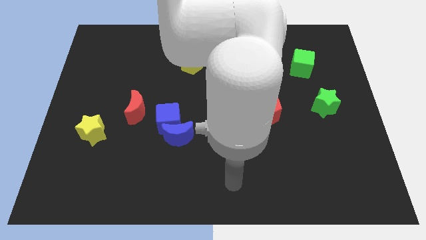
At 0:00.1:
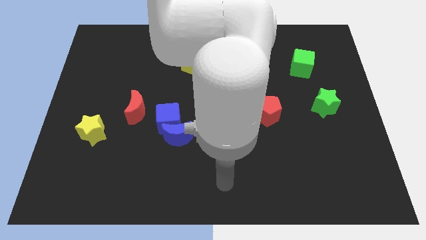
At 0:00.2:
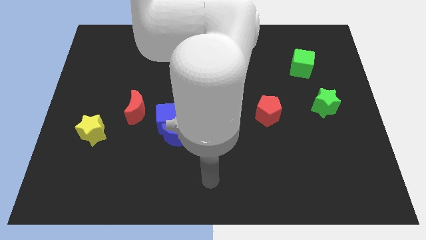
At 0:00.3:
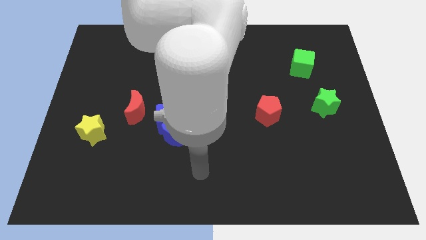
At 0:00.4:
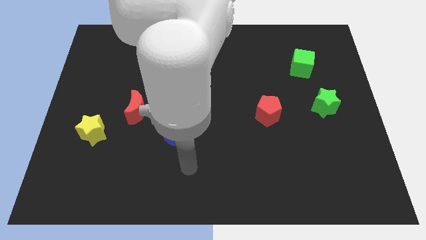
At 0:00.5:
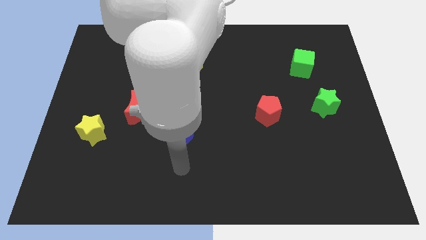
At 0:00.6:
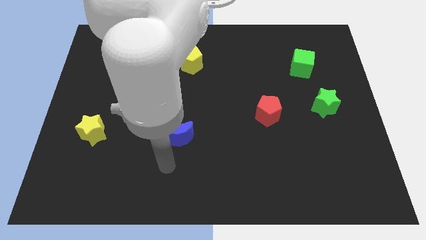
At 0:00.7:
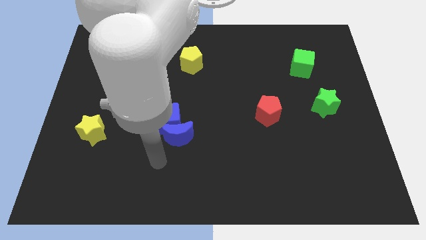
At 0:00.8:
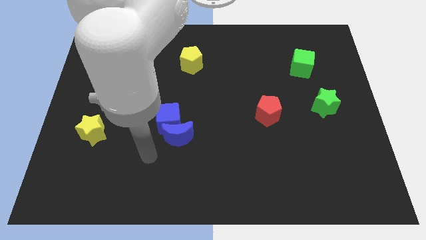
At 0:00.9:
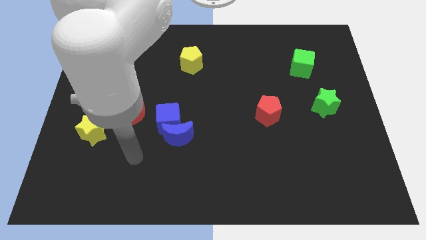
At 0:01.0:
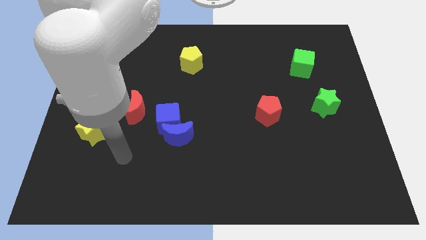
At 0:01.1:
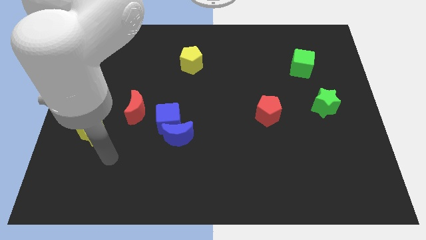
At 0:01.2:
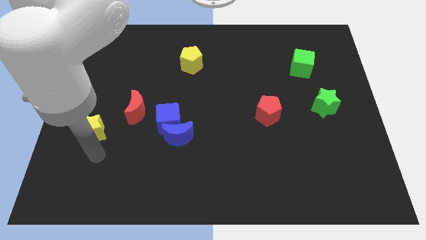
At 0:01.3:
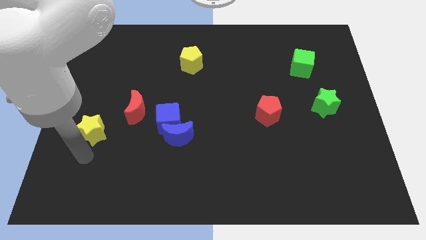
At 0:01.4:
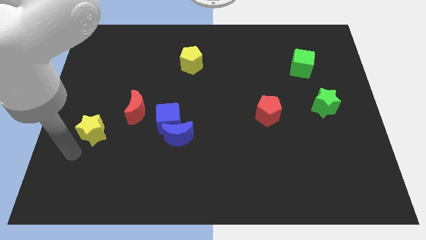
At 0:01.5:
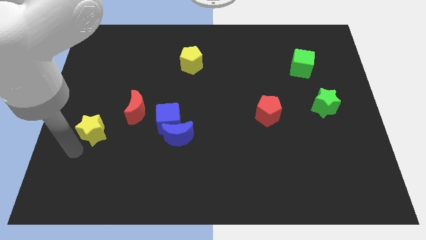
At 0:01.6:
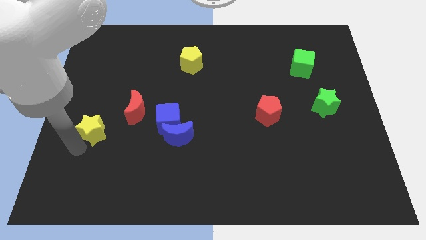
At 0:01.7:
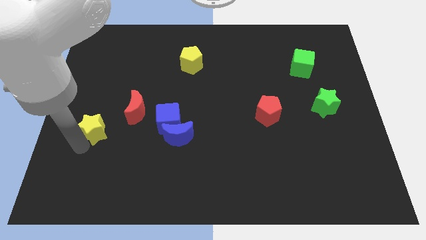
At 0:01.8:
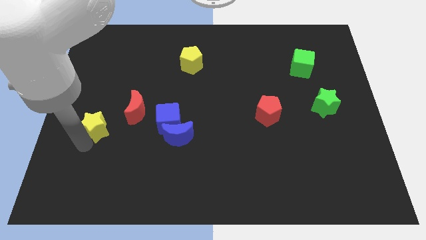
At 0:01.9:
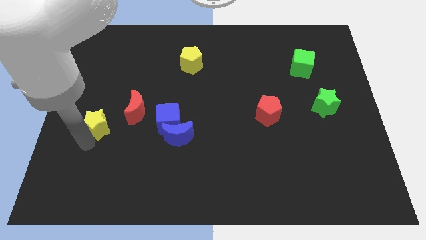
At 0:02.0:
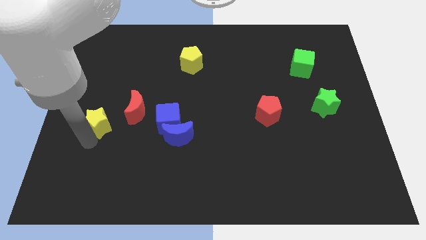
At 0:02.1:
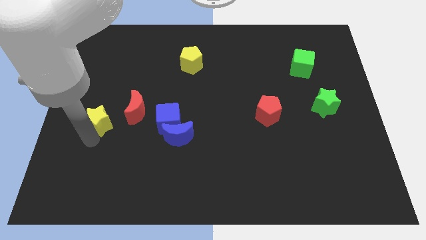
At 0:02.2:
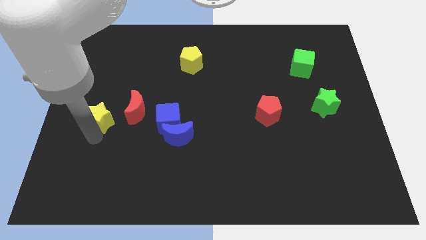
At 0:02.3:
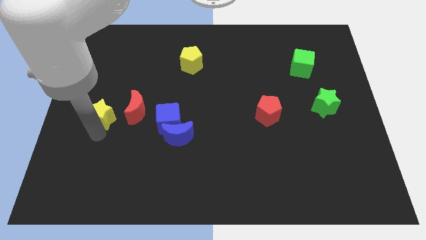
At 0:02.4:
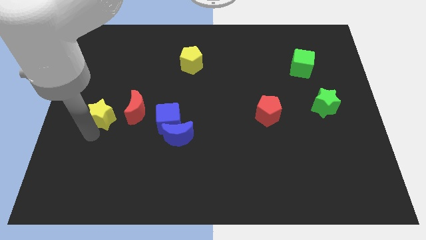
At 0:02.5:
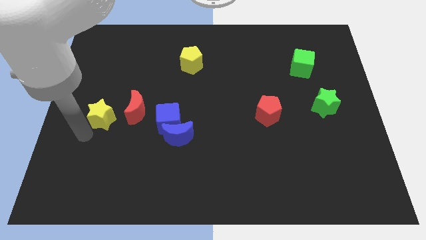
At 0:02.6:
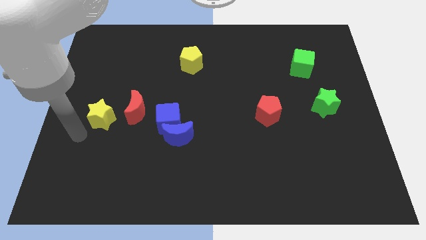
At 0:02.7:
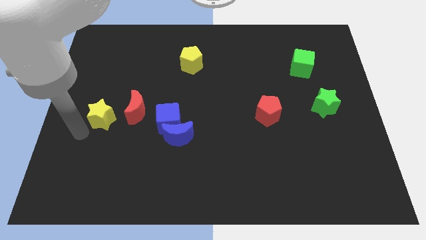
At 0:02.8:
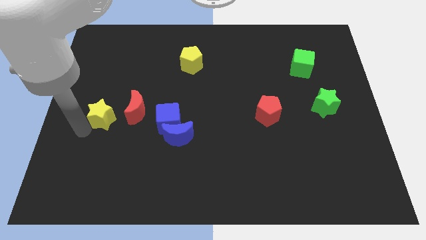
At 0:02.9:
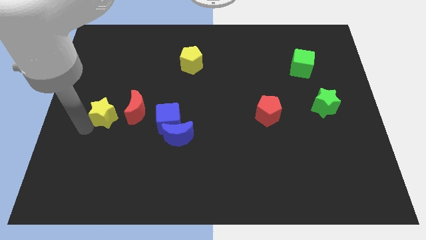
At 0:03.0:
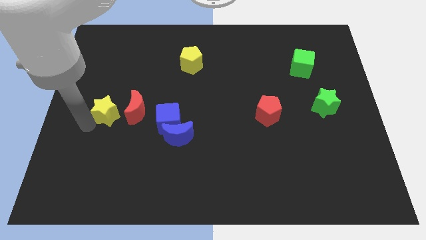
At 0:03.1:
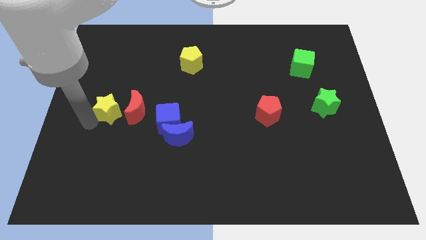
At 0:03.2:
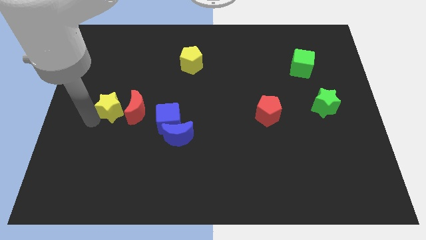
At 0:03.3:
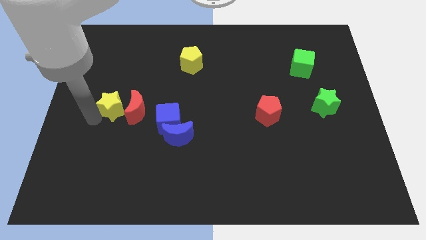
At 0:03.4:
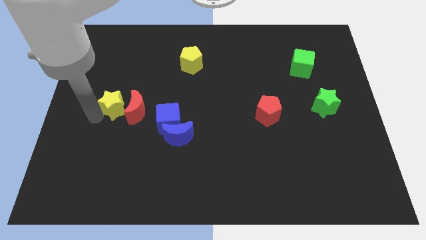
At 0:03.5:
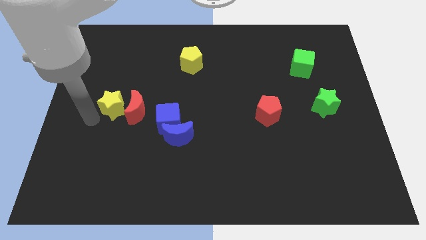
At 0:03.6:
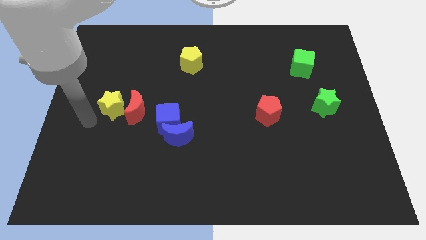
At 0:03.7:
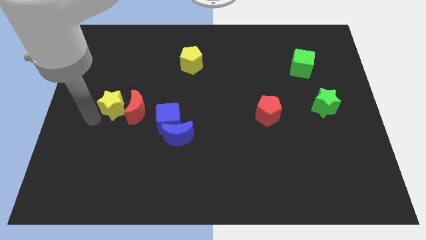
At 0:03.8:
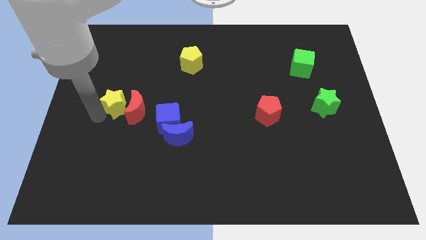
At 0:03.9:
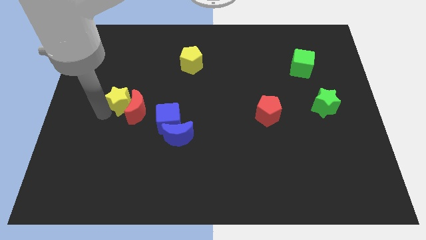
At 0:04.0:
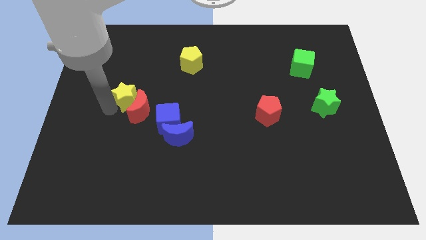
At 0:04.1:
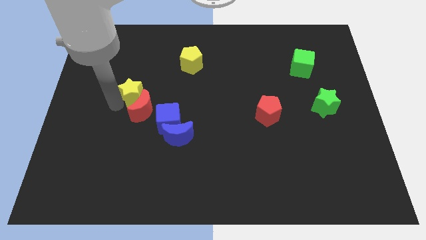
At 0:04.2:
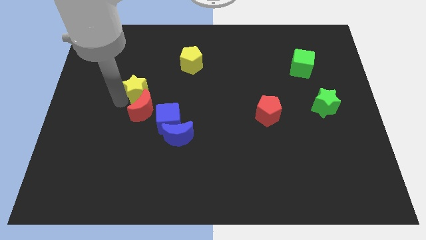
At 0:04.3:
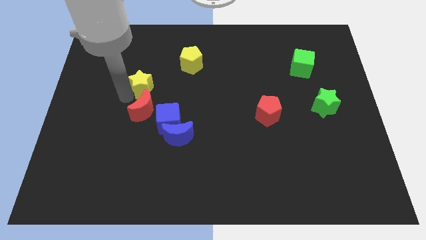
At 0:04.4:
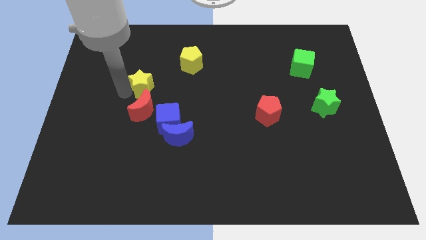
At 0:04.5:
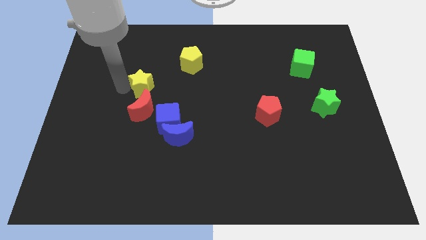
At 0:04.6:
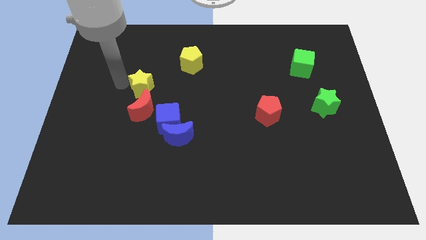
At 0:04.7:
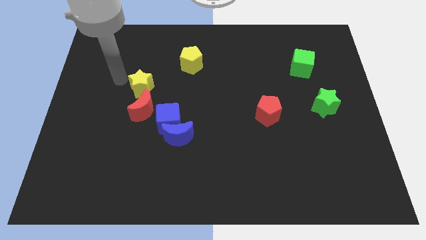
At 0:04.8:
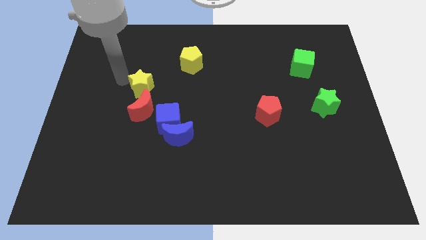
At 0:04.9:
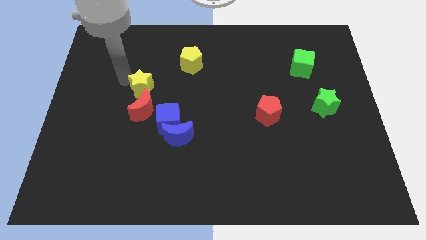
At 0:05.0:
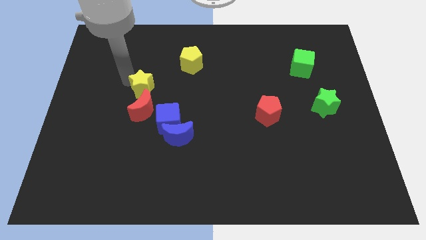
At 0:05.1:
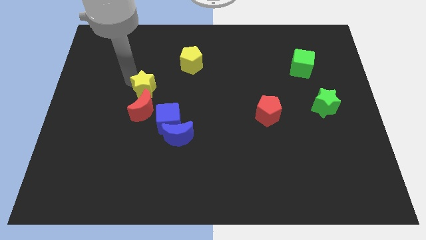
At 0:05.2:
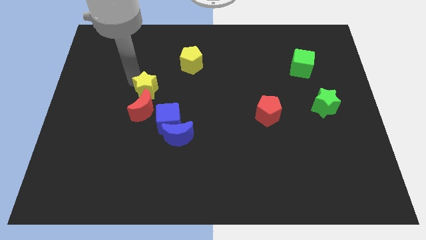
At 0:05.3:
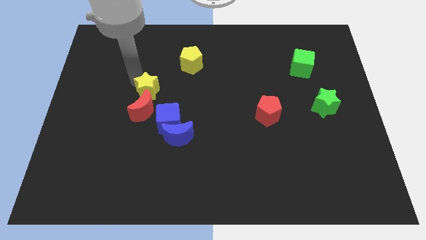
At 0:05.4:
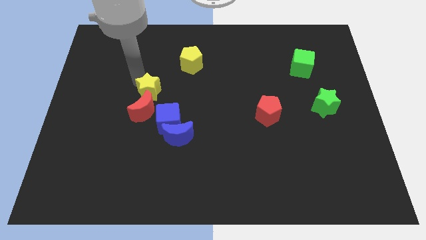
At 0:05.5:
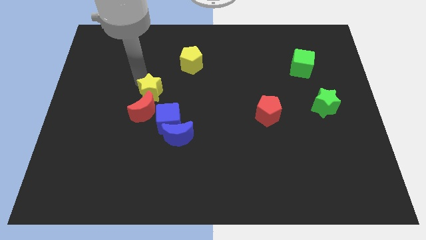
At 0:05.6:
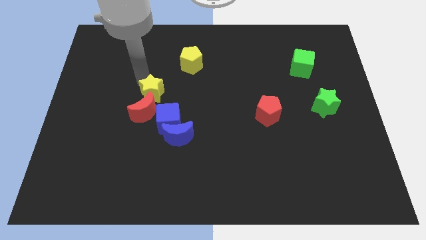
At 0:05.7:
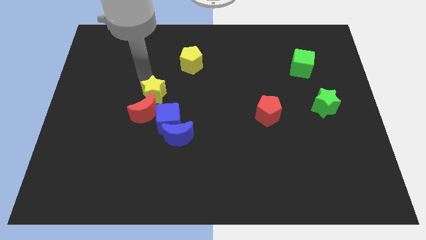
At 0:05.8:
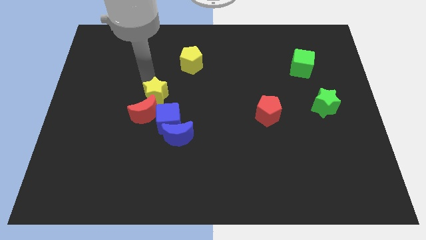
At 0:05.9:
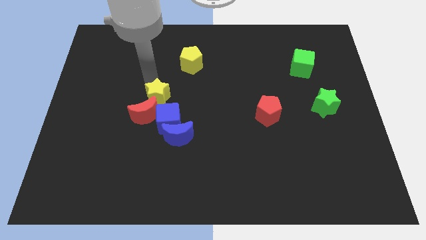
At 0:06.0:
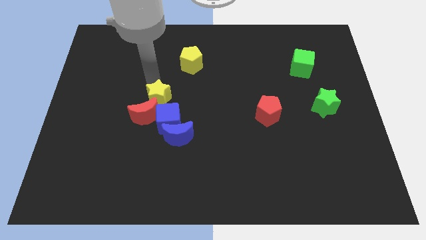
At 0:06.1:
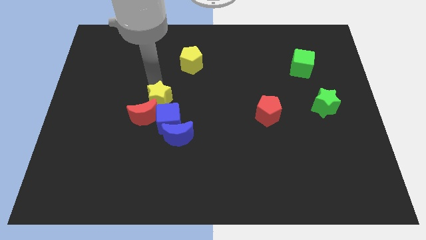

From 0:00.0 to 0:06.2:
move the yellow star to the center

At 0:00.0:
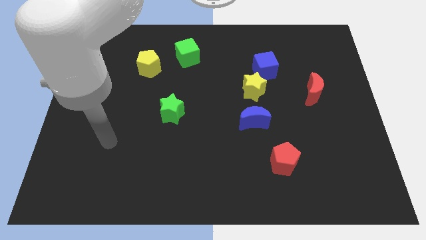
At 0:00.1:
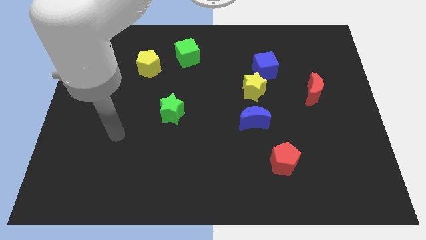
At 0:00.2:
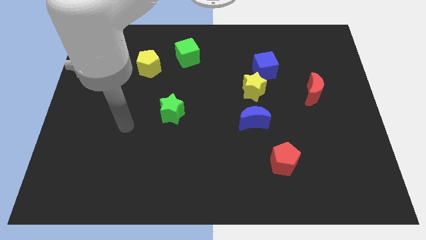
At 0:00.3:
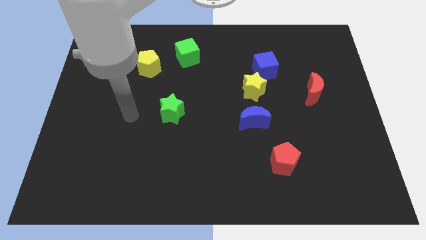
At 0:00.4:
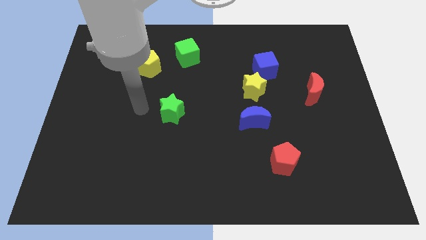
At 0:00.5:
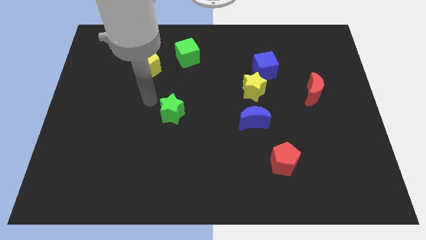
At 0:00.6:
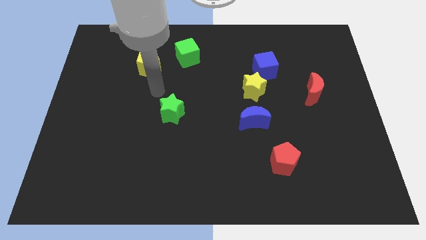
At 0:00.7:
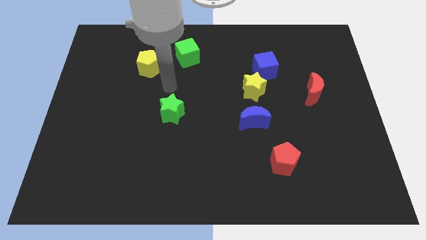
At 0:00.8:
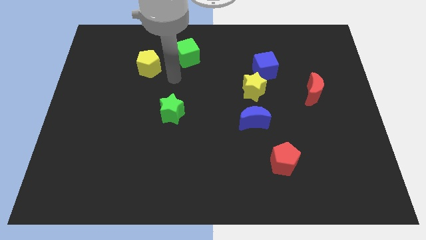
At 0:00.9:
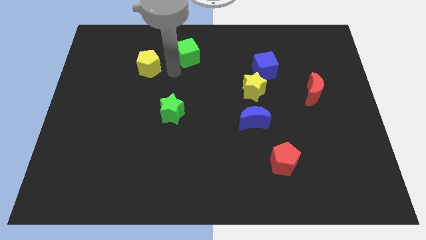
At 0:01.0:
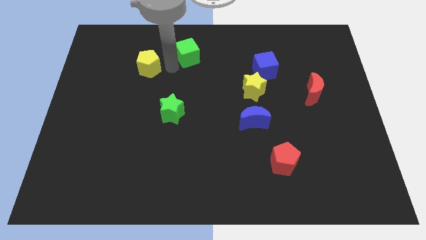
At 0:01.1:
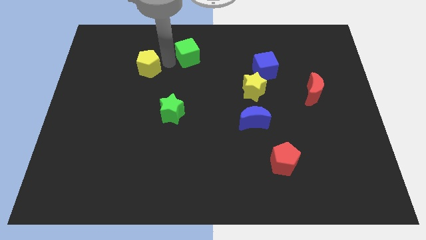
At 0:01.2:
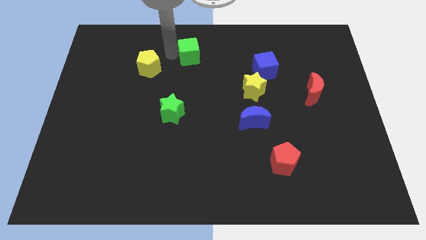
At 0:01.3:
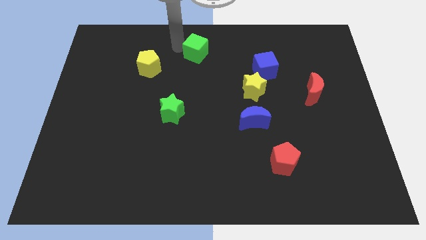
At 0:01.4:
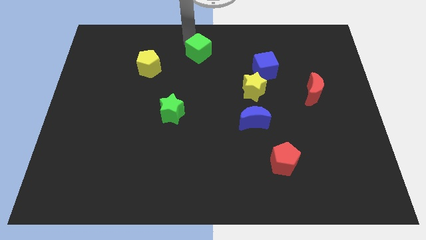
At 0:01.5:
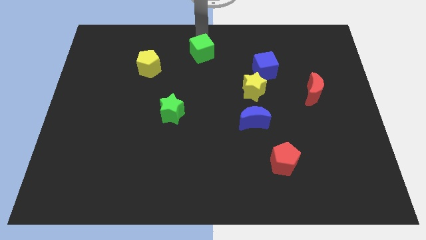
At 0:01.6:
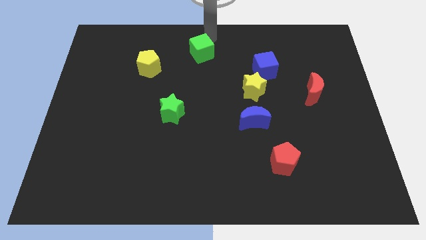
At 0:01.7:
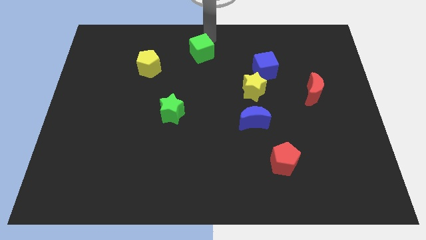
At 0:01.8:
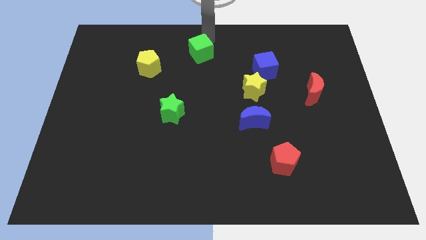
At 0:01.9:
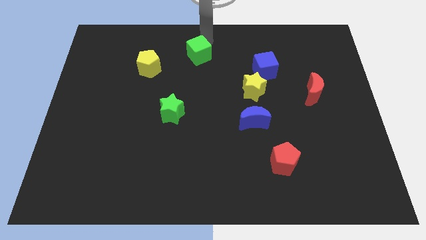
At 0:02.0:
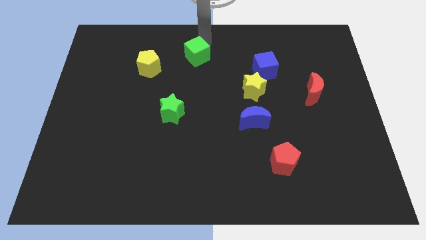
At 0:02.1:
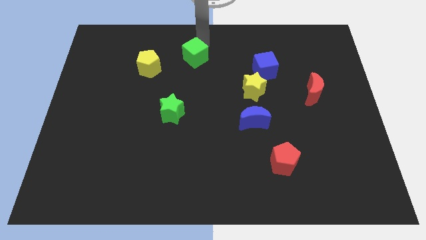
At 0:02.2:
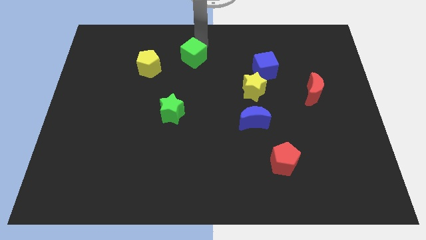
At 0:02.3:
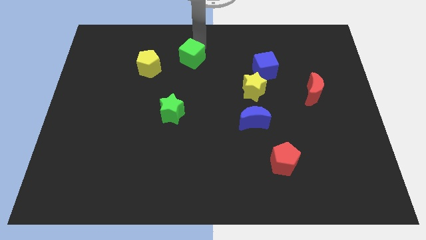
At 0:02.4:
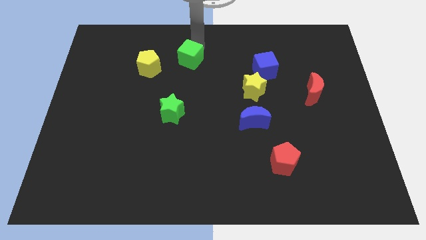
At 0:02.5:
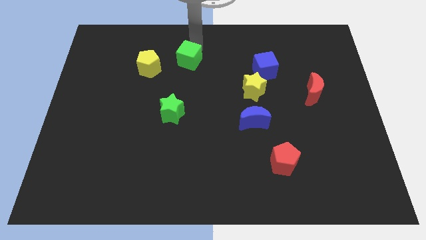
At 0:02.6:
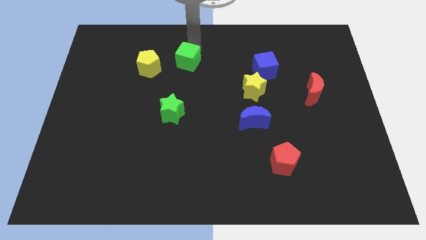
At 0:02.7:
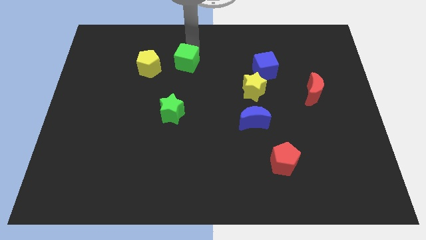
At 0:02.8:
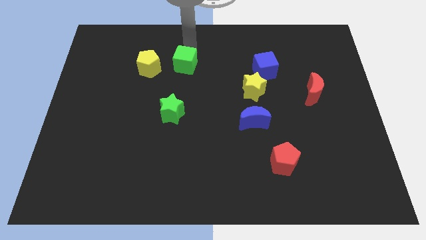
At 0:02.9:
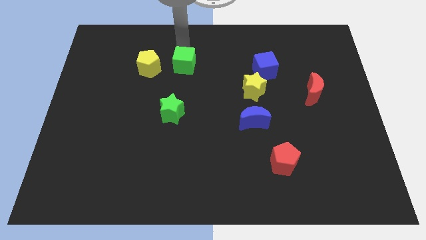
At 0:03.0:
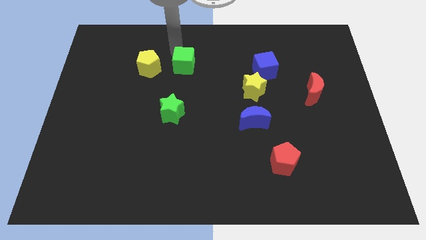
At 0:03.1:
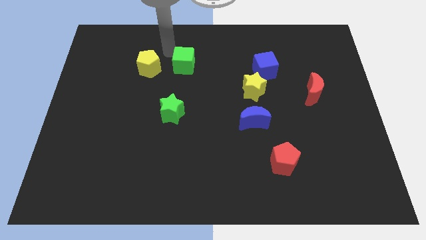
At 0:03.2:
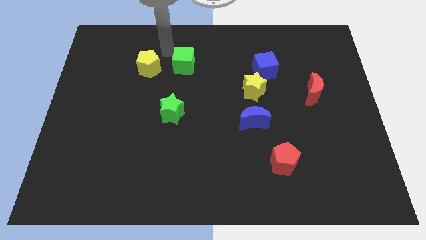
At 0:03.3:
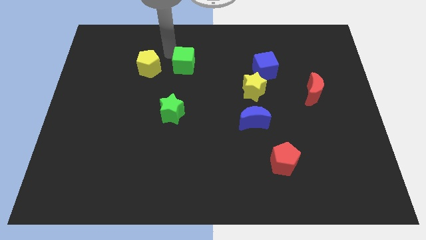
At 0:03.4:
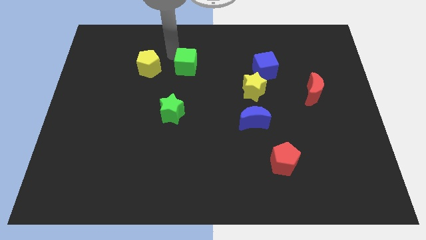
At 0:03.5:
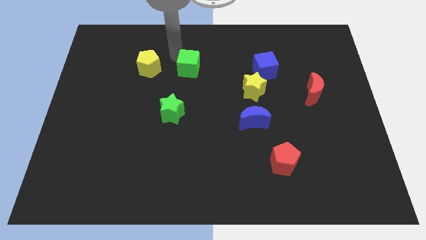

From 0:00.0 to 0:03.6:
move the green cube to the center
